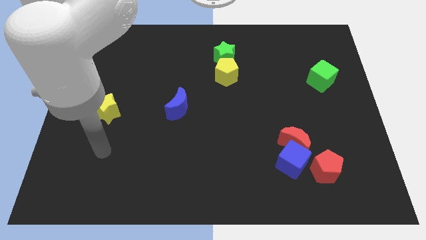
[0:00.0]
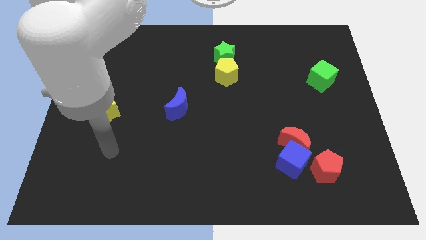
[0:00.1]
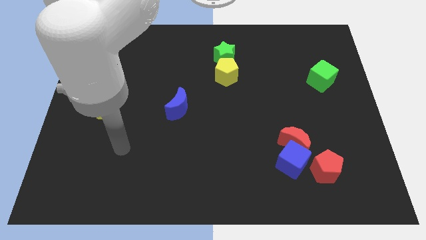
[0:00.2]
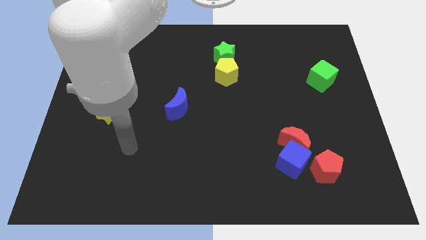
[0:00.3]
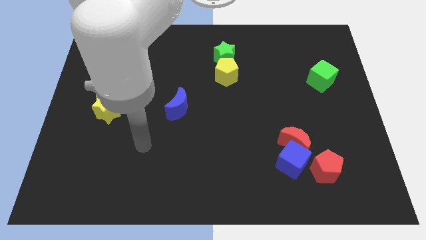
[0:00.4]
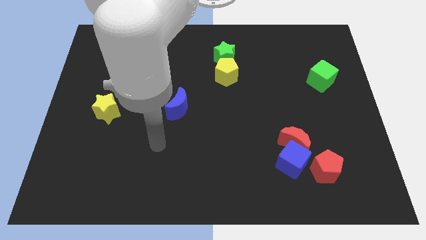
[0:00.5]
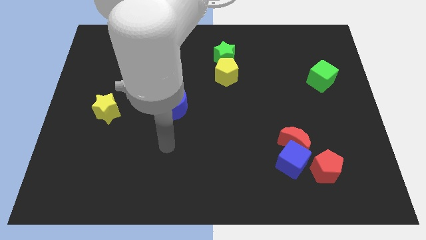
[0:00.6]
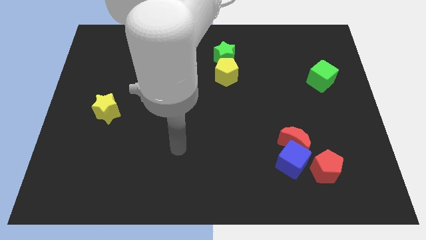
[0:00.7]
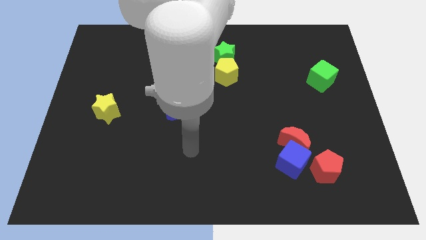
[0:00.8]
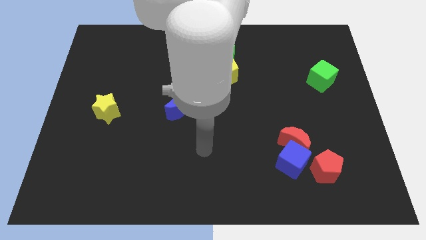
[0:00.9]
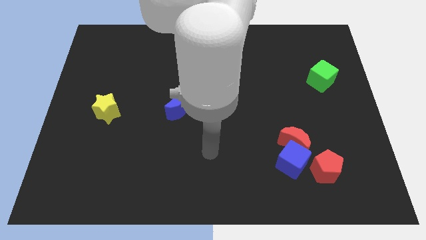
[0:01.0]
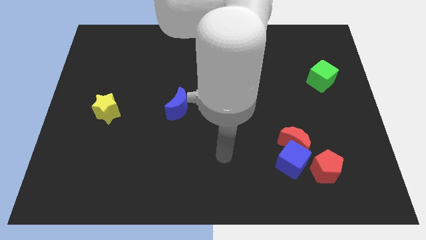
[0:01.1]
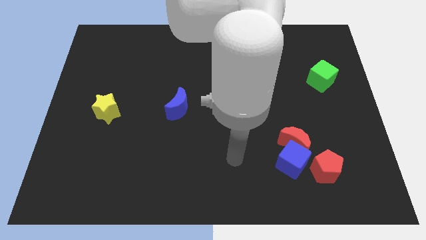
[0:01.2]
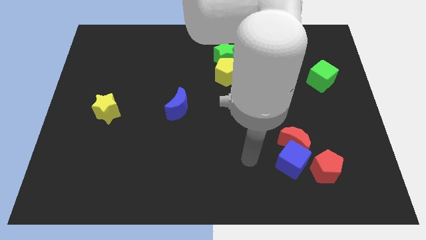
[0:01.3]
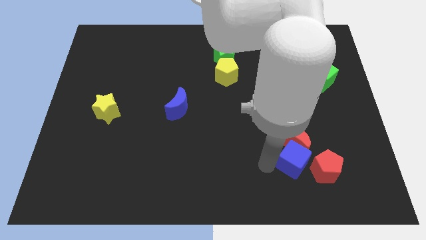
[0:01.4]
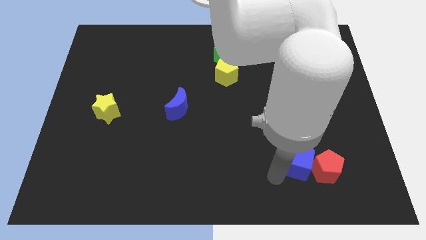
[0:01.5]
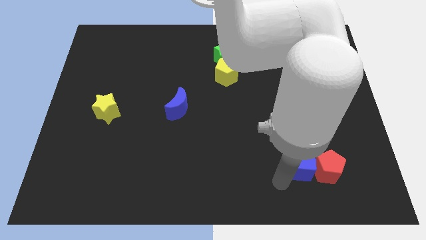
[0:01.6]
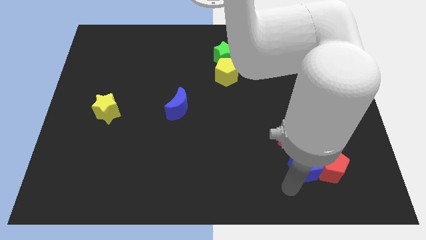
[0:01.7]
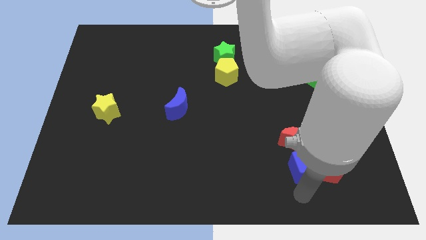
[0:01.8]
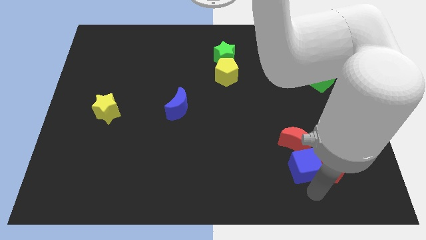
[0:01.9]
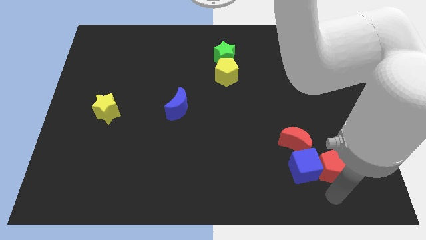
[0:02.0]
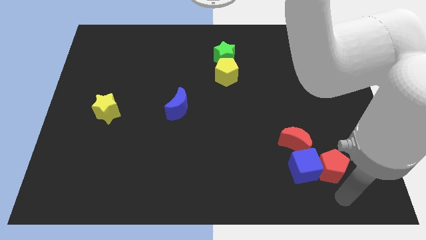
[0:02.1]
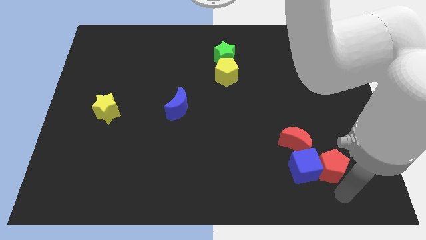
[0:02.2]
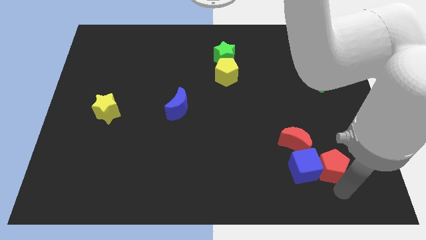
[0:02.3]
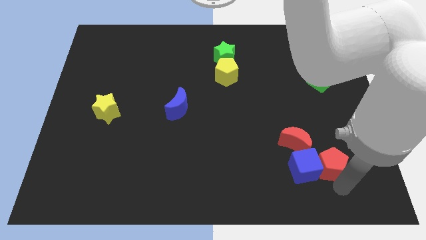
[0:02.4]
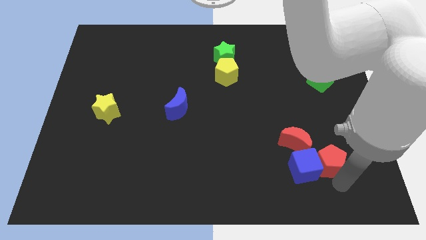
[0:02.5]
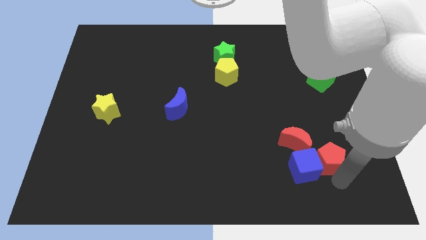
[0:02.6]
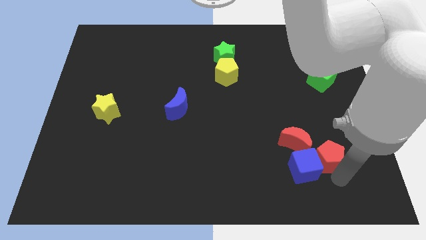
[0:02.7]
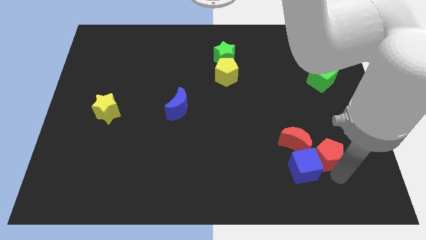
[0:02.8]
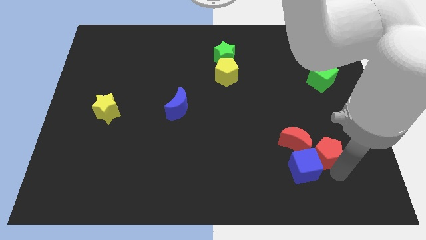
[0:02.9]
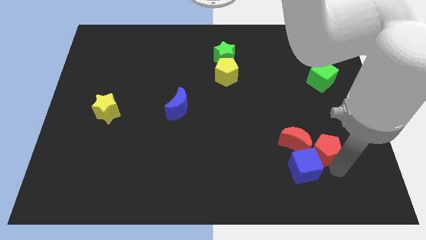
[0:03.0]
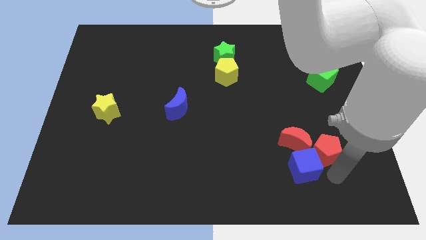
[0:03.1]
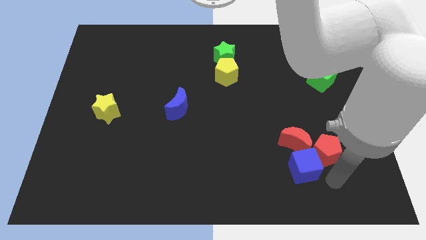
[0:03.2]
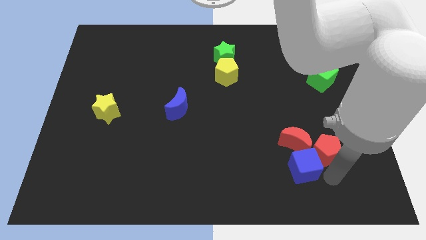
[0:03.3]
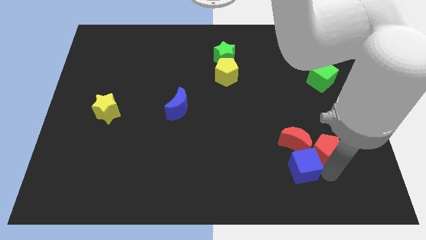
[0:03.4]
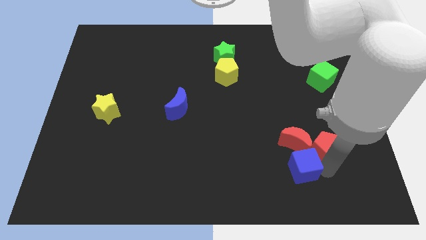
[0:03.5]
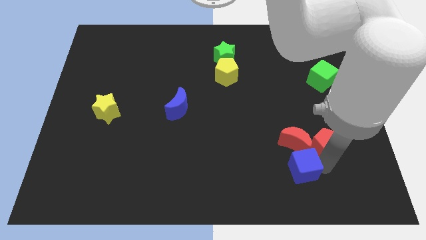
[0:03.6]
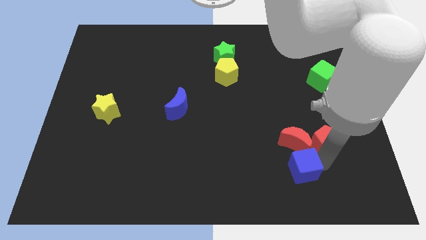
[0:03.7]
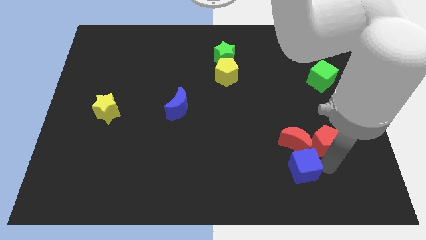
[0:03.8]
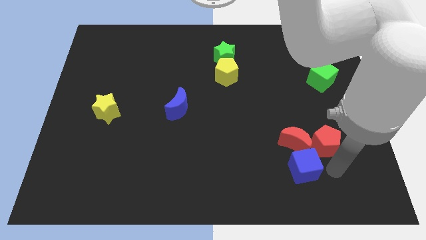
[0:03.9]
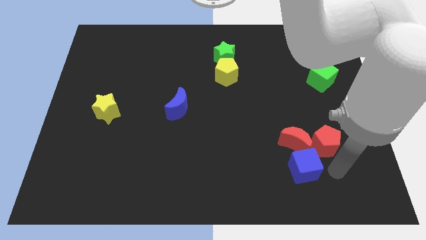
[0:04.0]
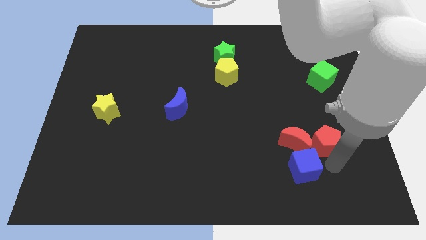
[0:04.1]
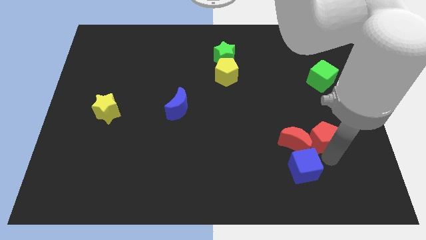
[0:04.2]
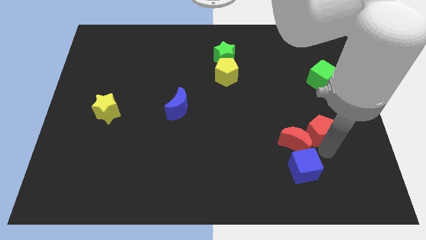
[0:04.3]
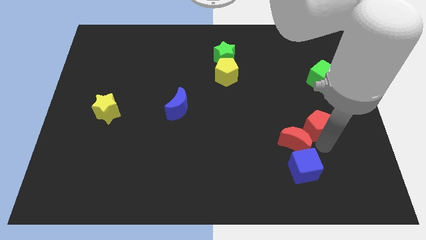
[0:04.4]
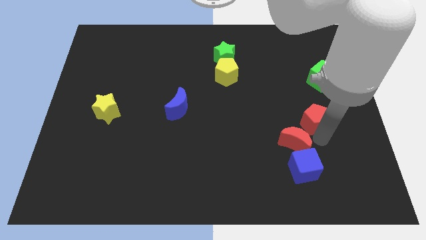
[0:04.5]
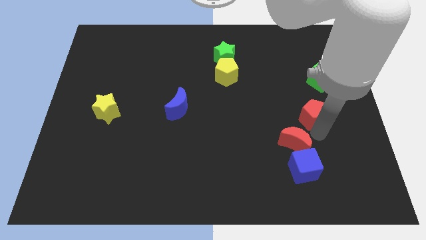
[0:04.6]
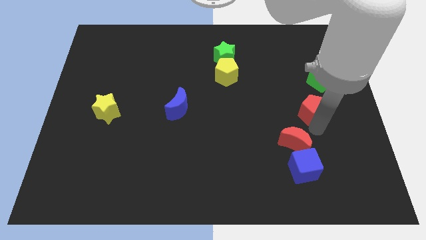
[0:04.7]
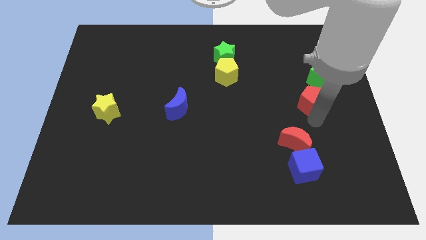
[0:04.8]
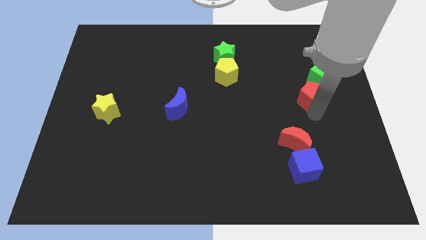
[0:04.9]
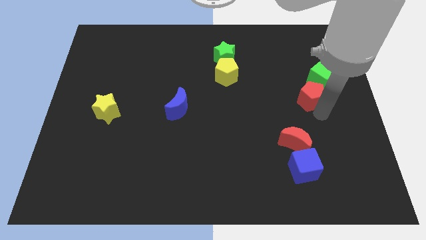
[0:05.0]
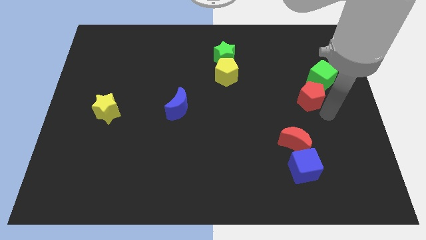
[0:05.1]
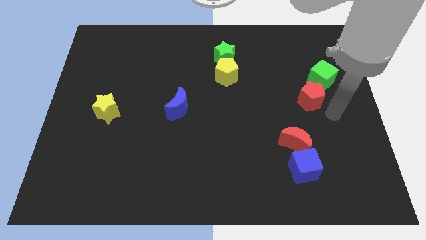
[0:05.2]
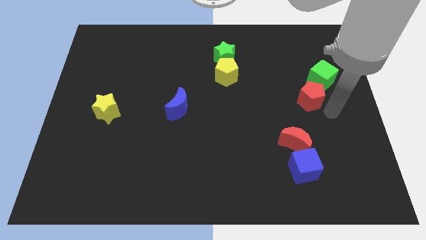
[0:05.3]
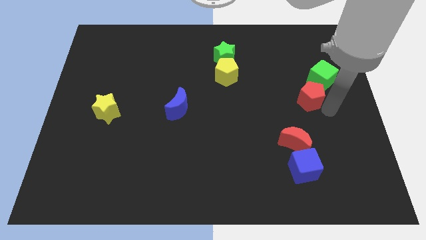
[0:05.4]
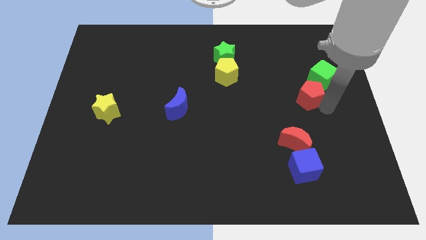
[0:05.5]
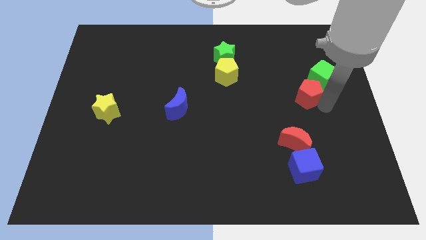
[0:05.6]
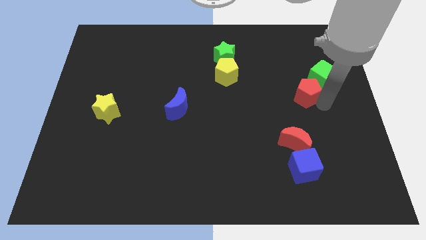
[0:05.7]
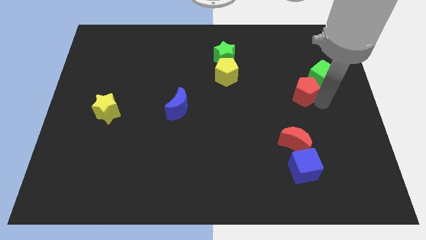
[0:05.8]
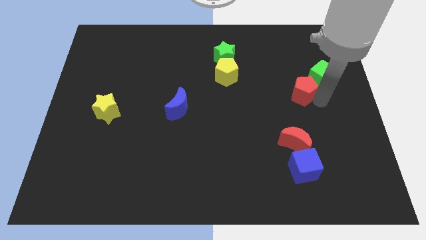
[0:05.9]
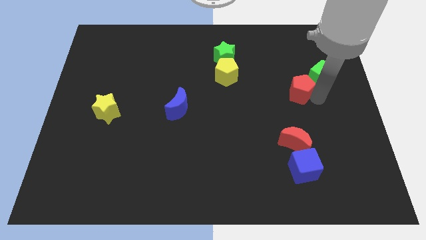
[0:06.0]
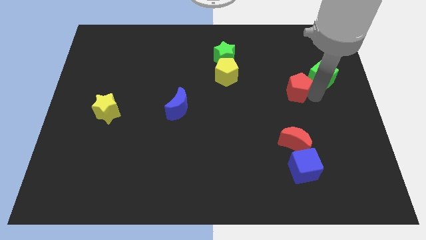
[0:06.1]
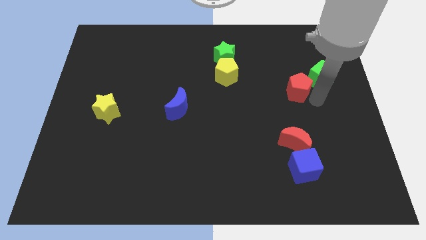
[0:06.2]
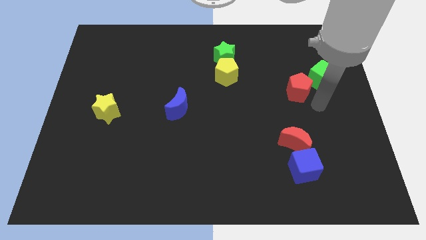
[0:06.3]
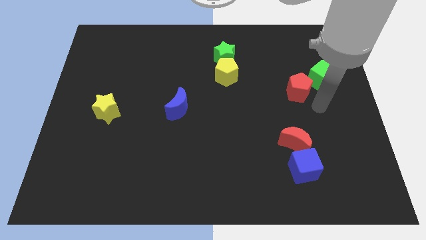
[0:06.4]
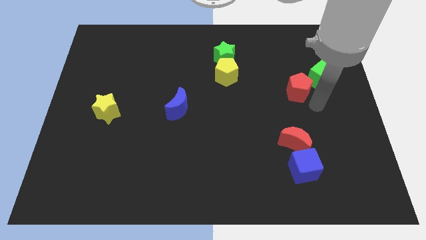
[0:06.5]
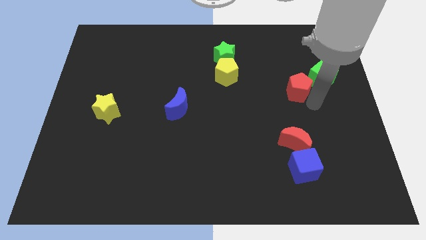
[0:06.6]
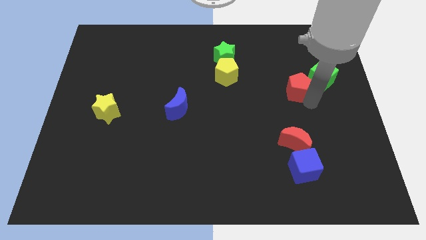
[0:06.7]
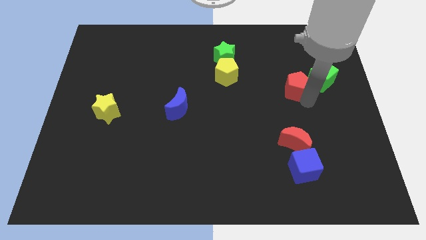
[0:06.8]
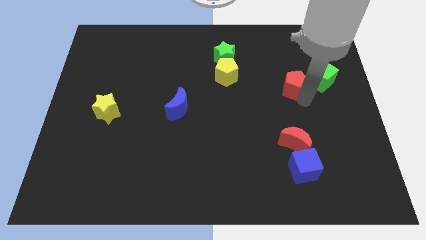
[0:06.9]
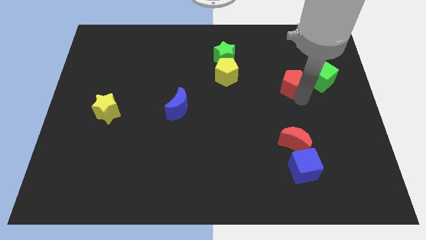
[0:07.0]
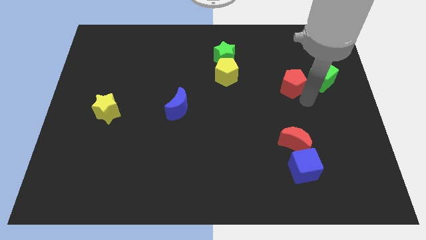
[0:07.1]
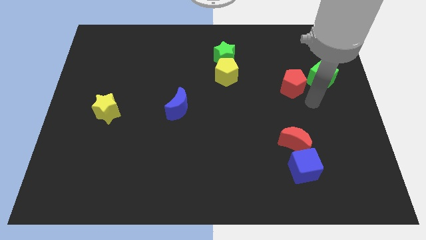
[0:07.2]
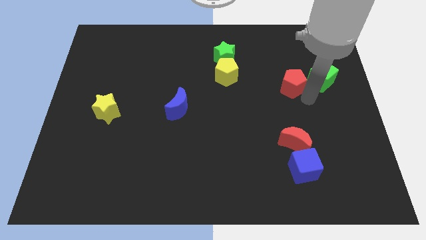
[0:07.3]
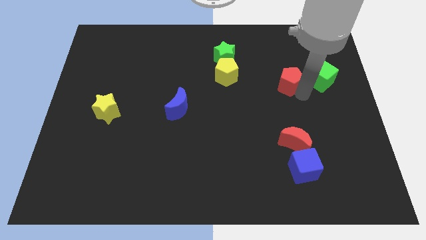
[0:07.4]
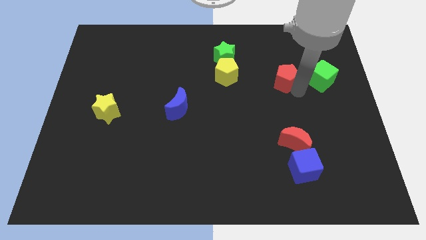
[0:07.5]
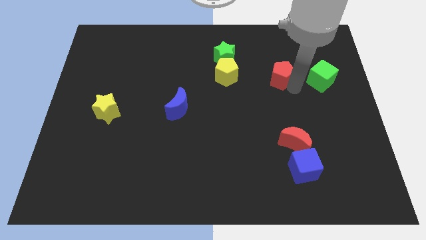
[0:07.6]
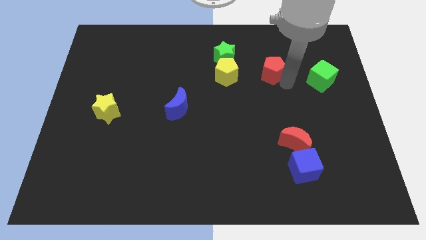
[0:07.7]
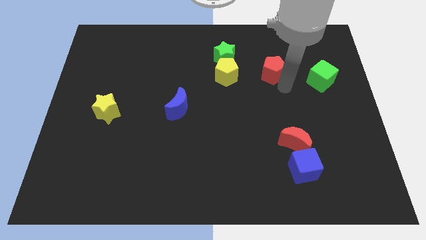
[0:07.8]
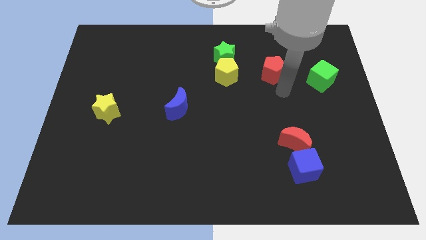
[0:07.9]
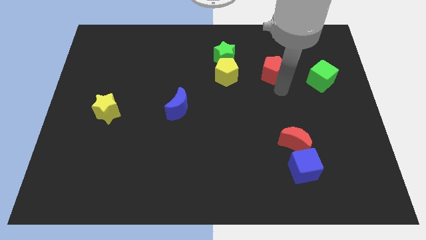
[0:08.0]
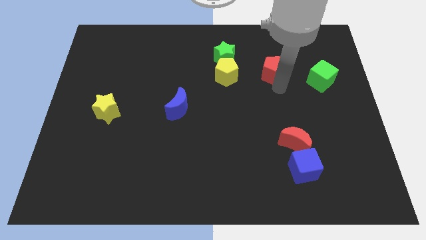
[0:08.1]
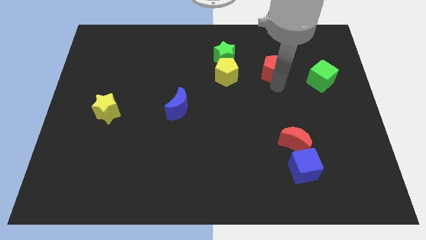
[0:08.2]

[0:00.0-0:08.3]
put the red pentagon right of the green star
